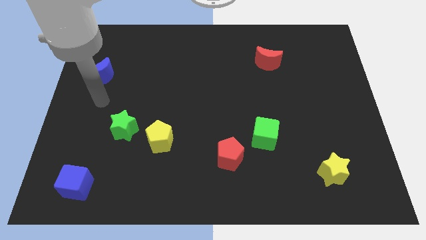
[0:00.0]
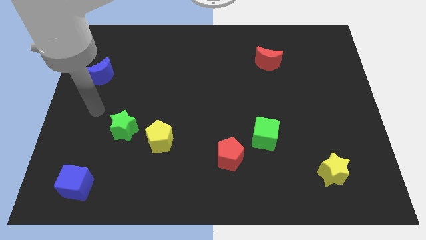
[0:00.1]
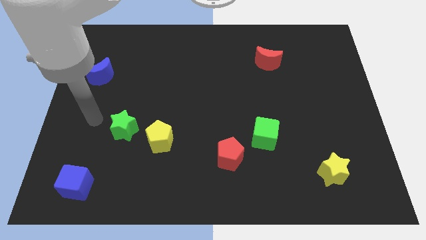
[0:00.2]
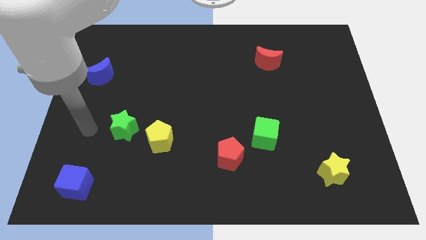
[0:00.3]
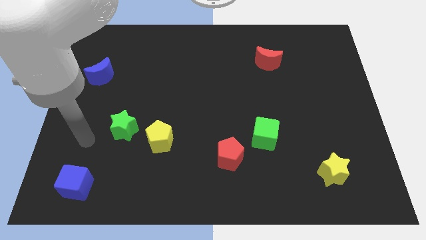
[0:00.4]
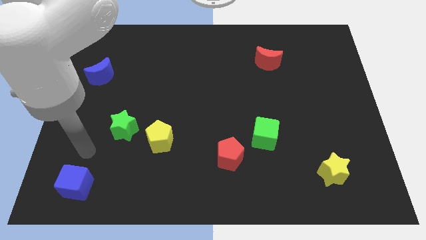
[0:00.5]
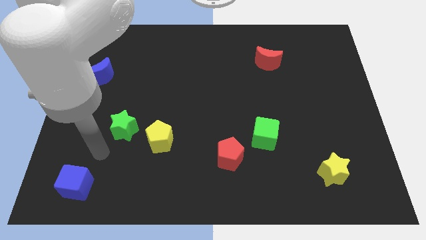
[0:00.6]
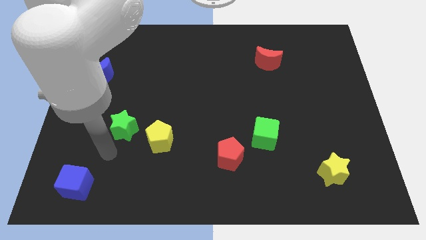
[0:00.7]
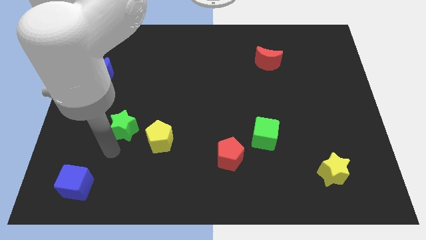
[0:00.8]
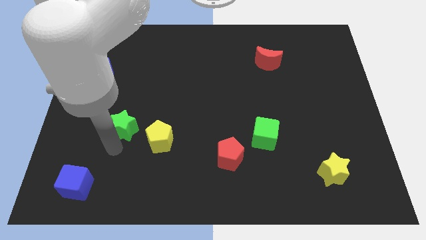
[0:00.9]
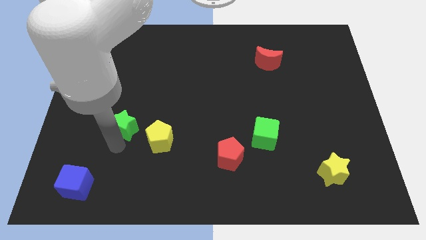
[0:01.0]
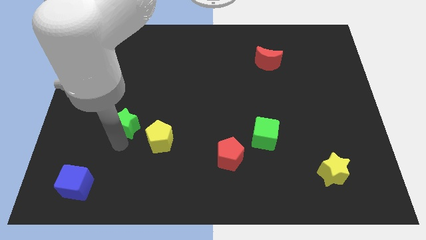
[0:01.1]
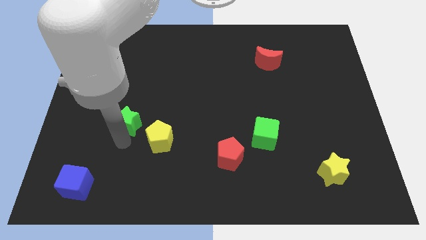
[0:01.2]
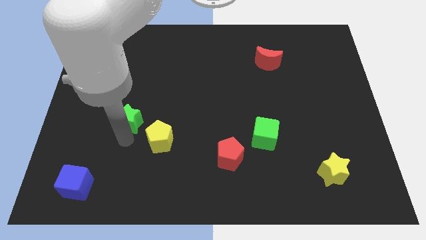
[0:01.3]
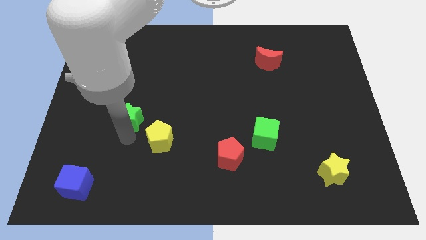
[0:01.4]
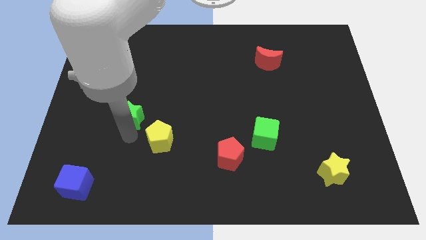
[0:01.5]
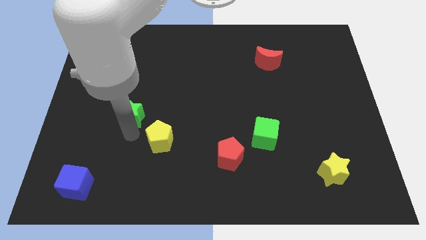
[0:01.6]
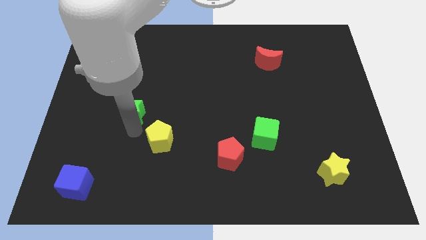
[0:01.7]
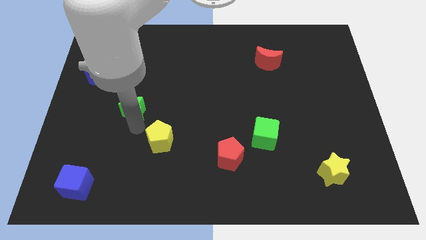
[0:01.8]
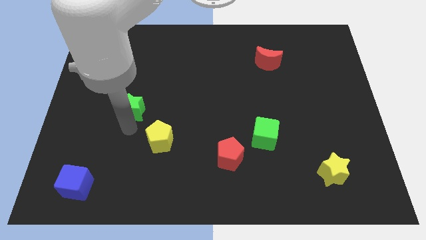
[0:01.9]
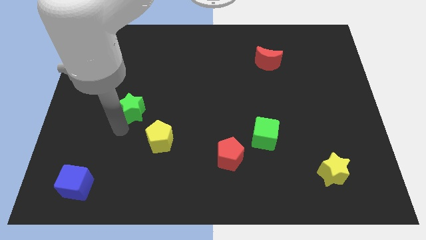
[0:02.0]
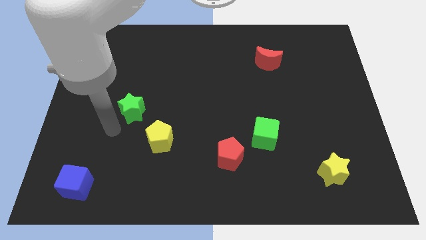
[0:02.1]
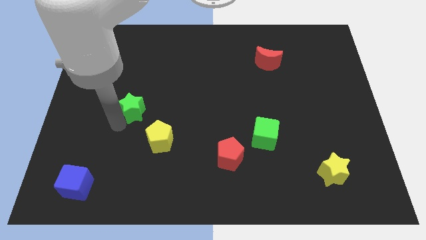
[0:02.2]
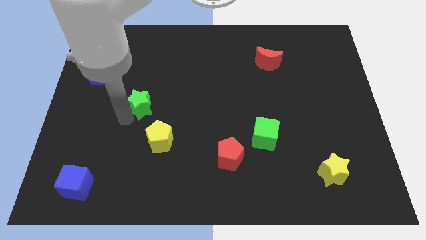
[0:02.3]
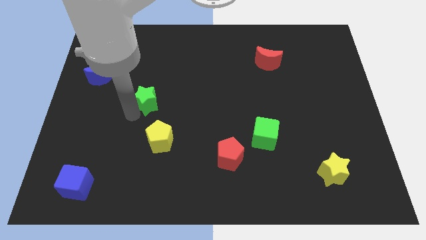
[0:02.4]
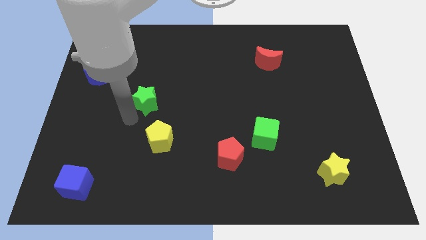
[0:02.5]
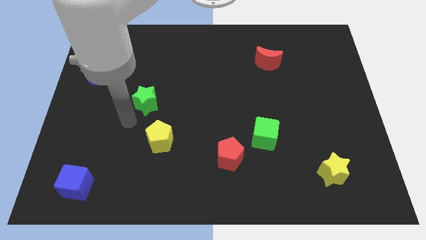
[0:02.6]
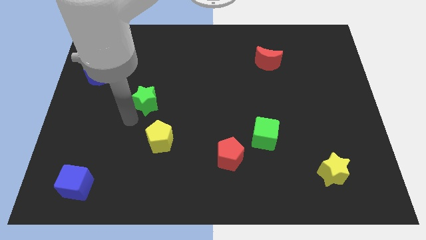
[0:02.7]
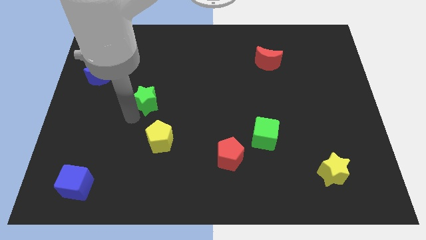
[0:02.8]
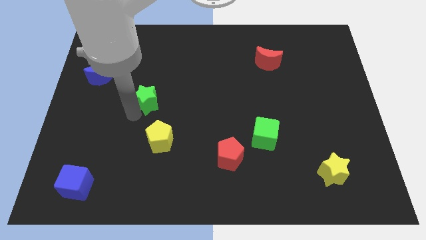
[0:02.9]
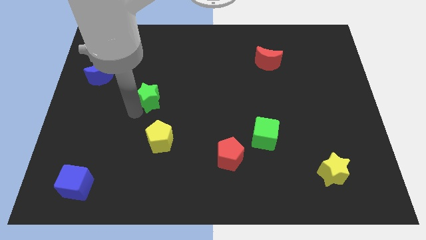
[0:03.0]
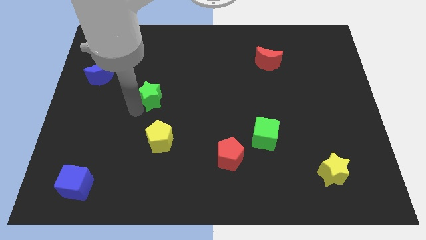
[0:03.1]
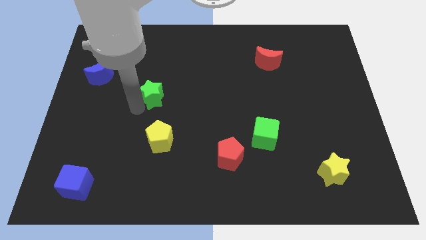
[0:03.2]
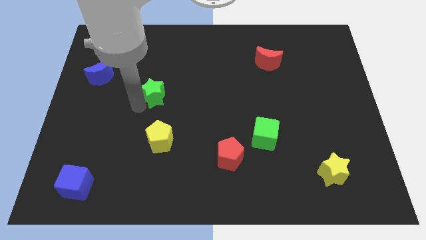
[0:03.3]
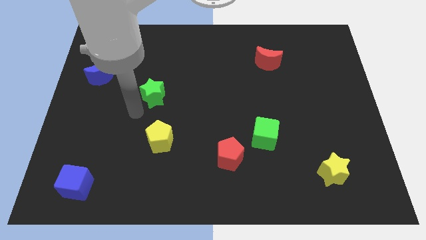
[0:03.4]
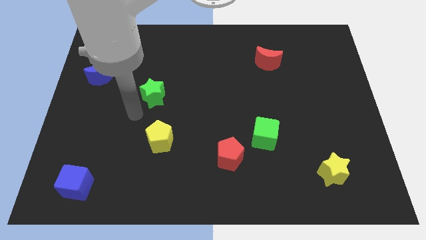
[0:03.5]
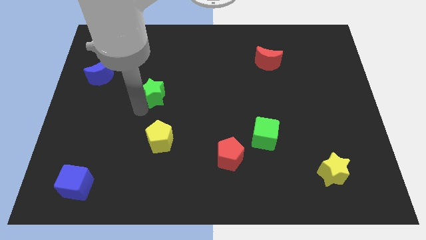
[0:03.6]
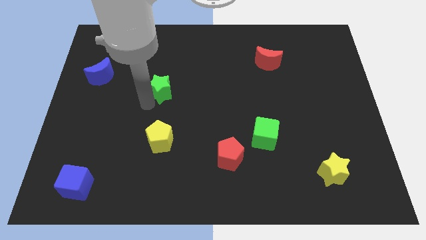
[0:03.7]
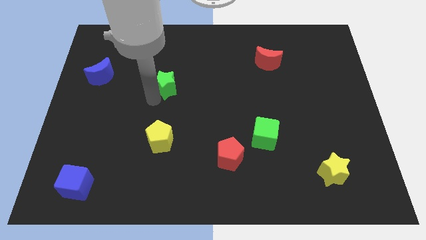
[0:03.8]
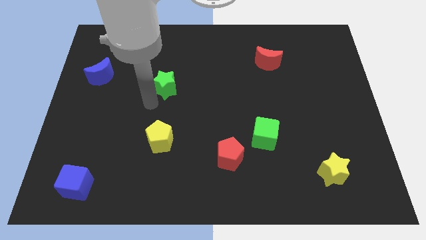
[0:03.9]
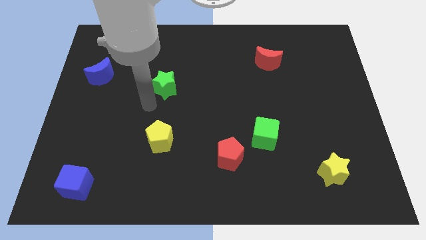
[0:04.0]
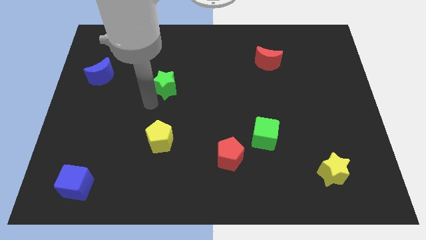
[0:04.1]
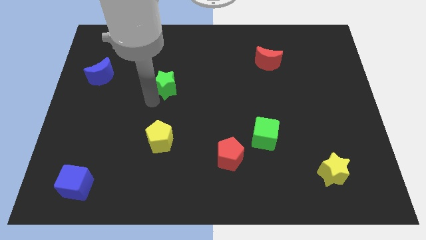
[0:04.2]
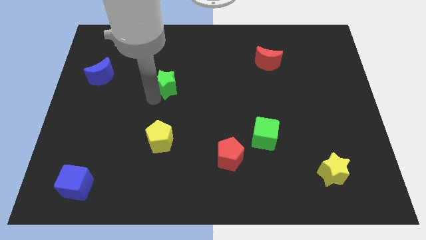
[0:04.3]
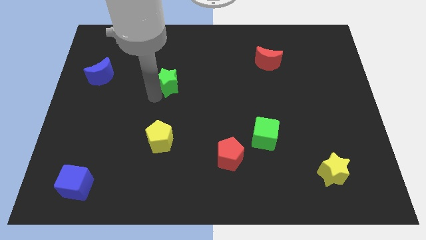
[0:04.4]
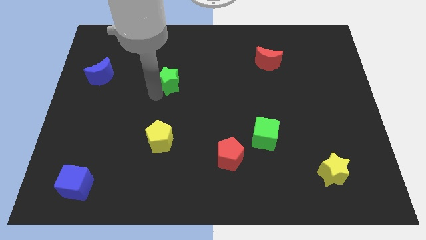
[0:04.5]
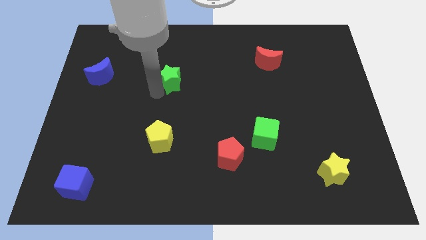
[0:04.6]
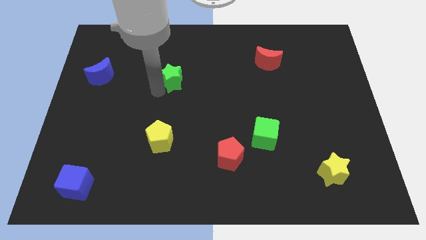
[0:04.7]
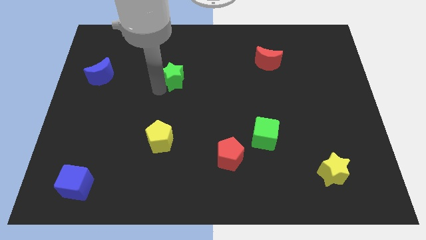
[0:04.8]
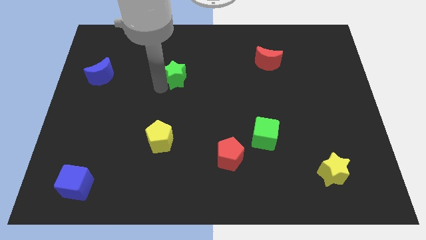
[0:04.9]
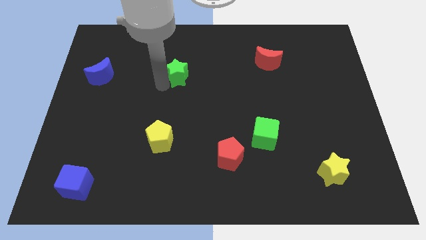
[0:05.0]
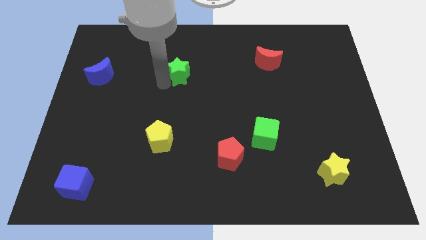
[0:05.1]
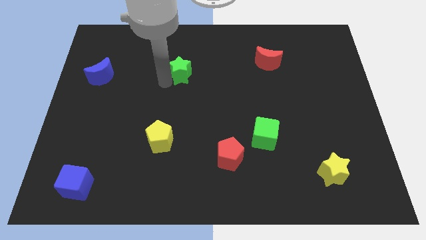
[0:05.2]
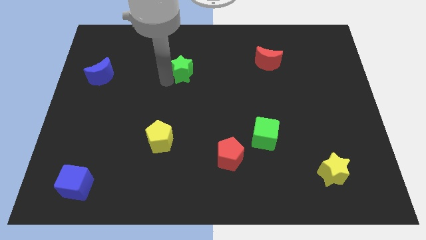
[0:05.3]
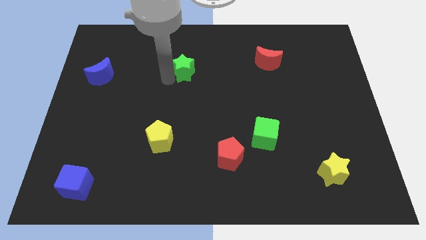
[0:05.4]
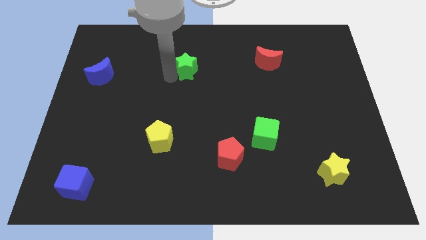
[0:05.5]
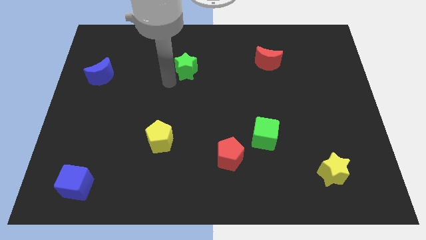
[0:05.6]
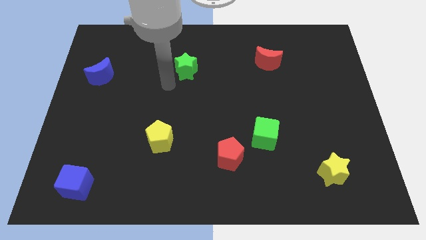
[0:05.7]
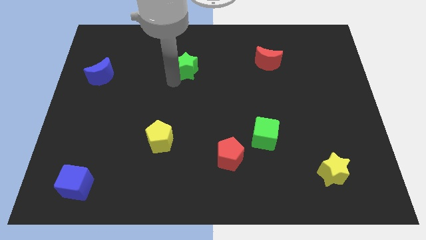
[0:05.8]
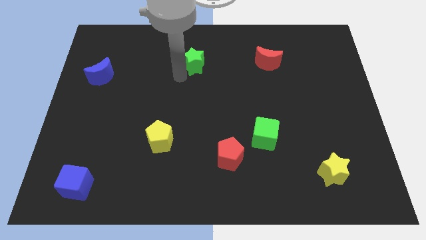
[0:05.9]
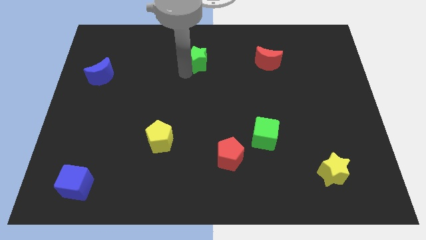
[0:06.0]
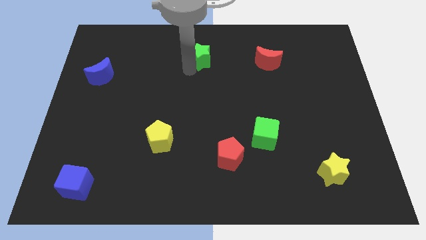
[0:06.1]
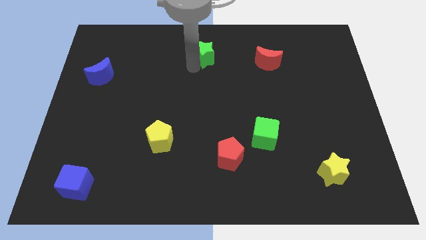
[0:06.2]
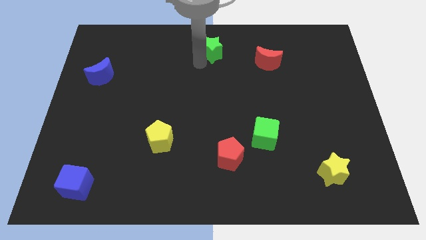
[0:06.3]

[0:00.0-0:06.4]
slide the green star to the towards your base
